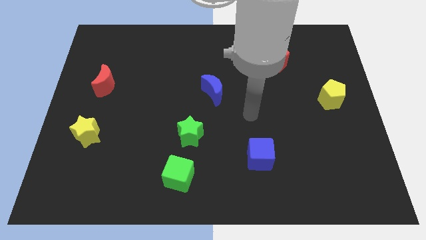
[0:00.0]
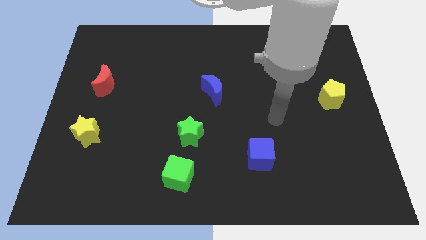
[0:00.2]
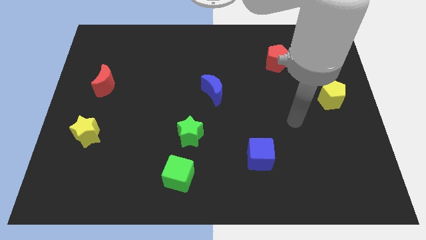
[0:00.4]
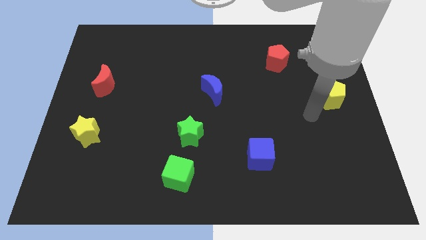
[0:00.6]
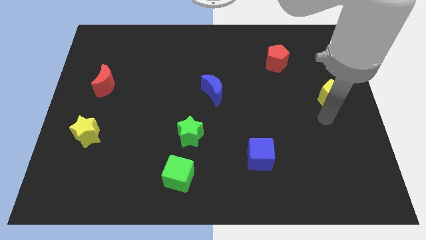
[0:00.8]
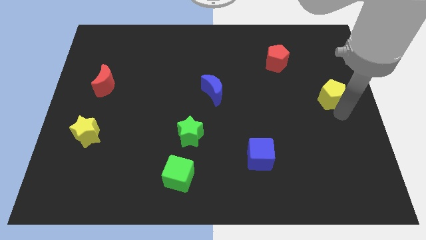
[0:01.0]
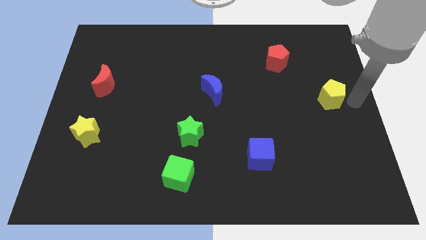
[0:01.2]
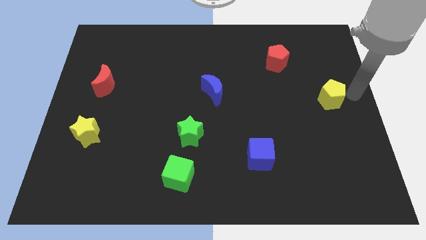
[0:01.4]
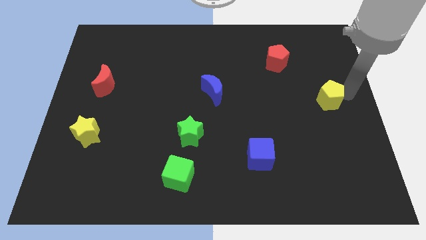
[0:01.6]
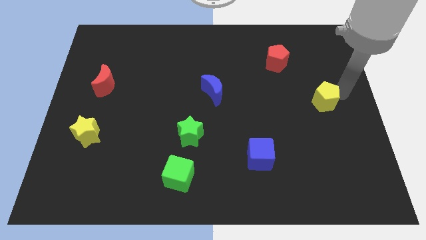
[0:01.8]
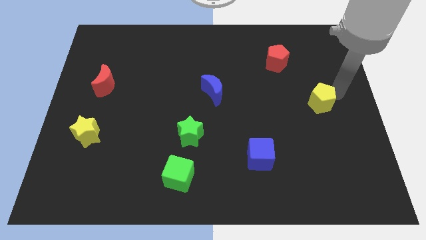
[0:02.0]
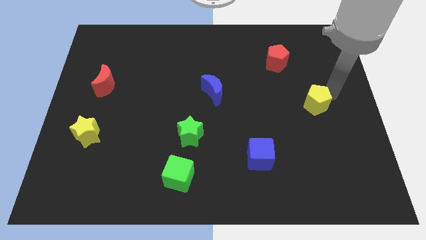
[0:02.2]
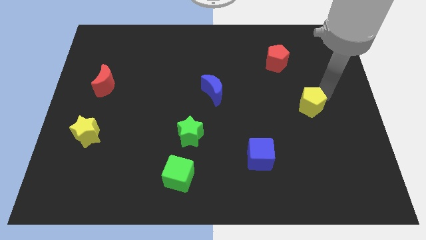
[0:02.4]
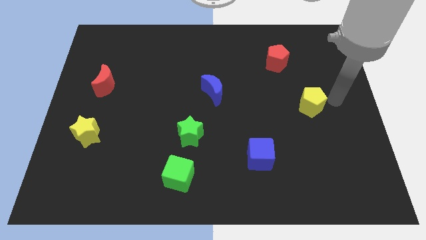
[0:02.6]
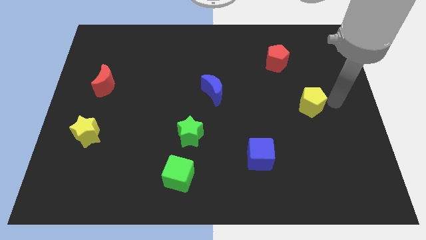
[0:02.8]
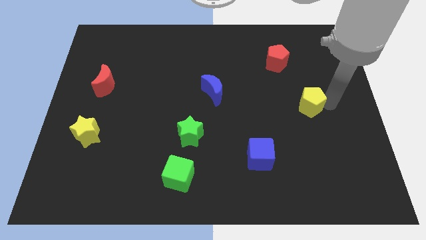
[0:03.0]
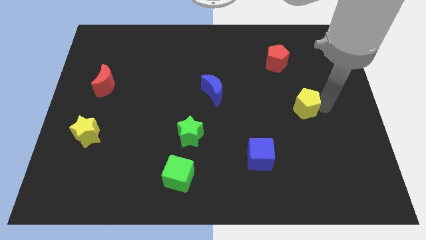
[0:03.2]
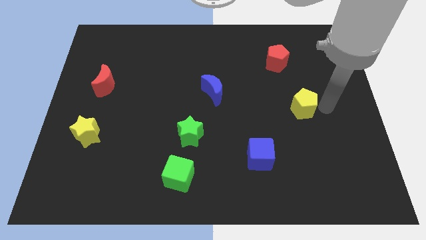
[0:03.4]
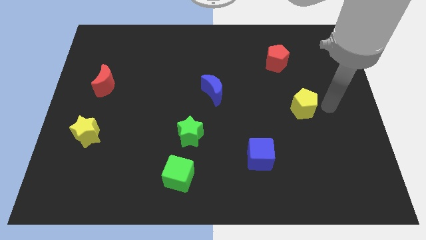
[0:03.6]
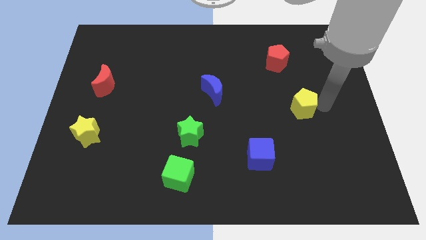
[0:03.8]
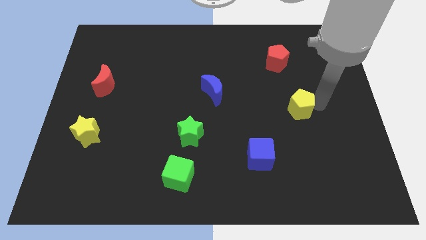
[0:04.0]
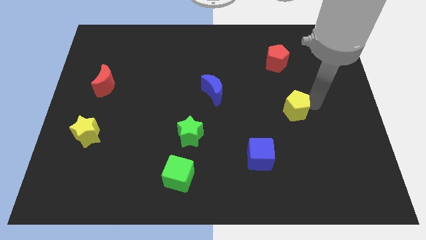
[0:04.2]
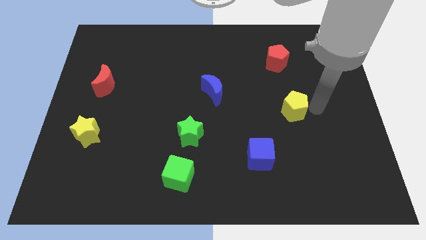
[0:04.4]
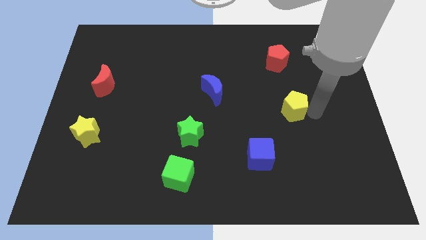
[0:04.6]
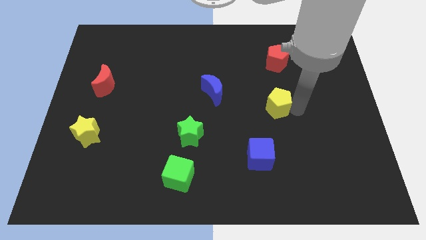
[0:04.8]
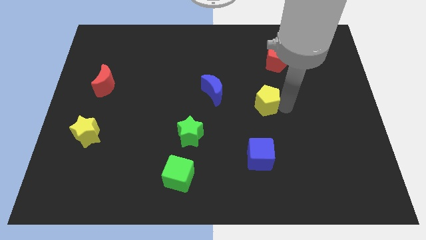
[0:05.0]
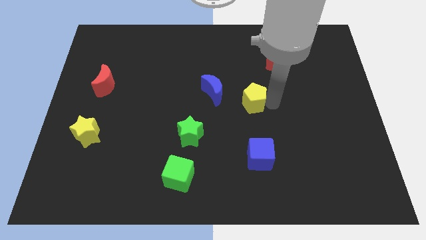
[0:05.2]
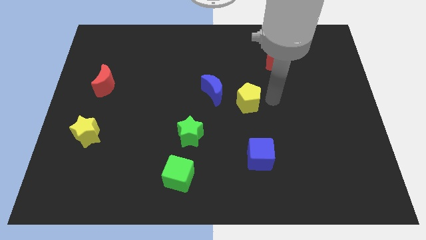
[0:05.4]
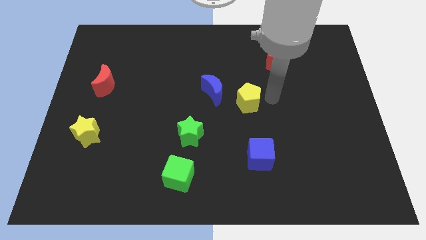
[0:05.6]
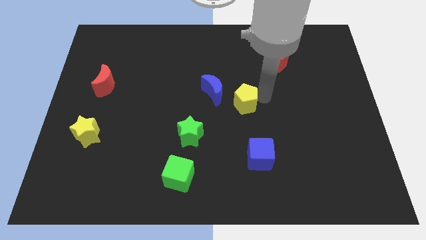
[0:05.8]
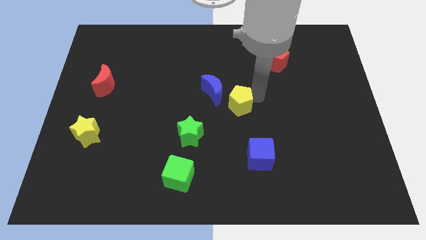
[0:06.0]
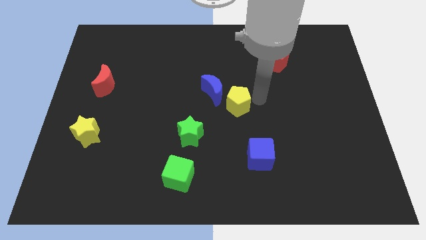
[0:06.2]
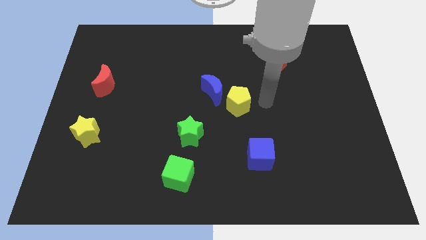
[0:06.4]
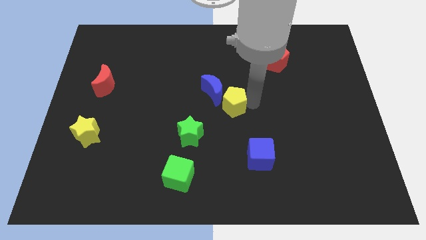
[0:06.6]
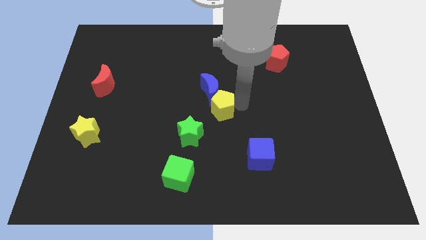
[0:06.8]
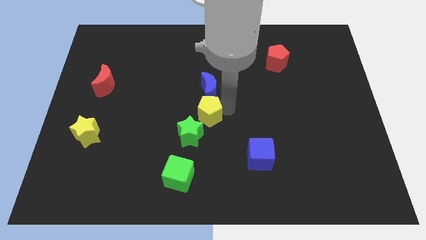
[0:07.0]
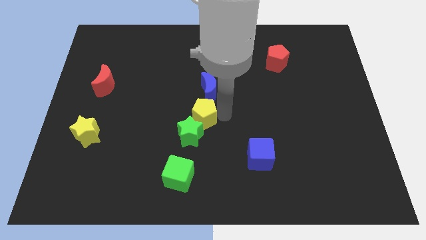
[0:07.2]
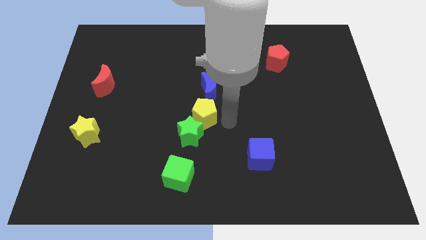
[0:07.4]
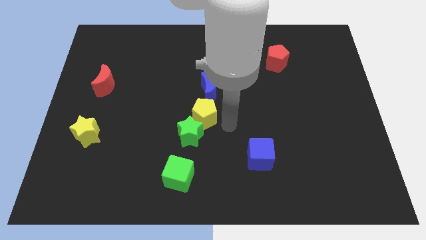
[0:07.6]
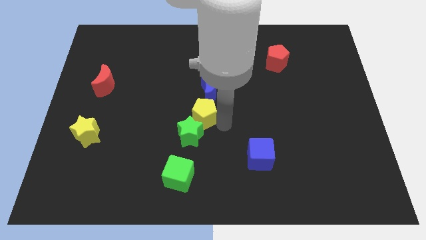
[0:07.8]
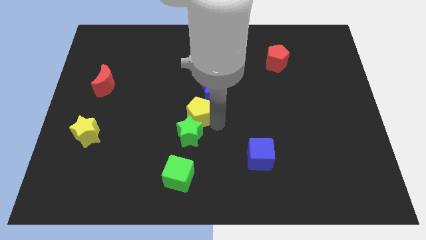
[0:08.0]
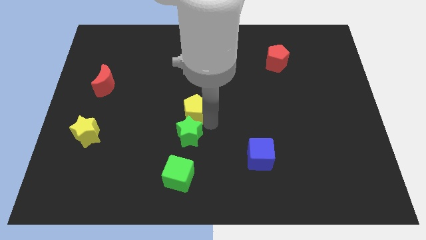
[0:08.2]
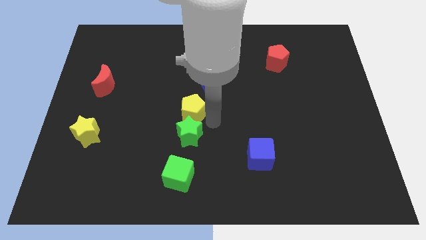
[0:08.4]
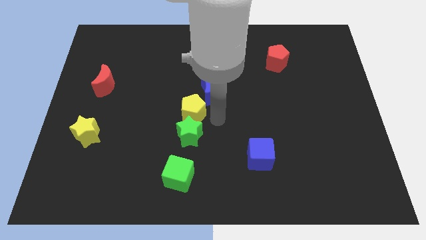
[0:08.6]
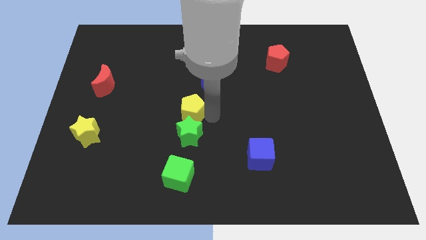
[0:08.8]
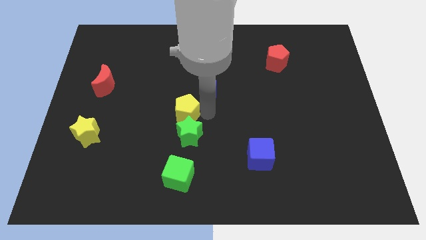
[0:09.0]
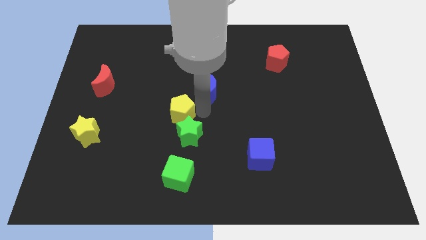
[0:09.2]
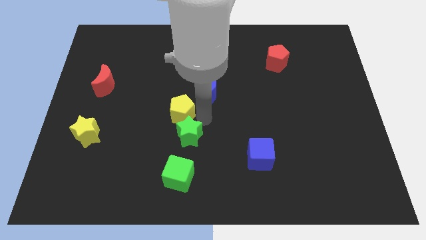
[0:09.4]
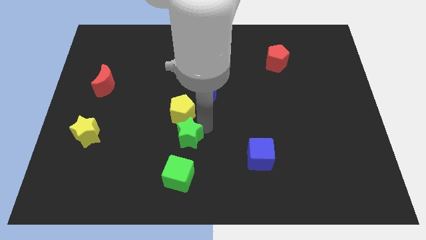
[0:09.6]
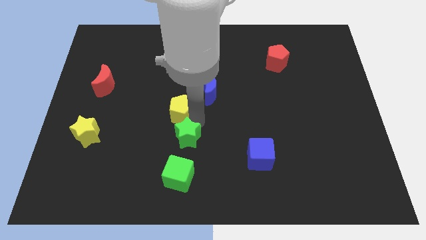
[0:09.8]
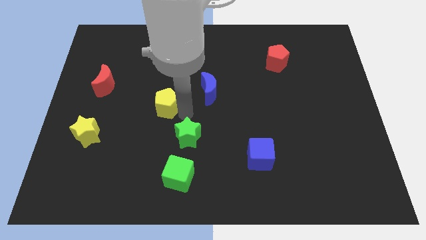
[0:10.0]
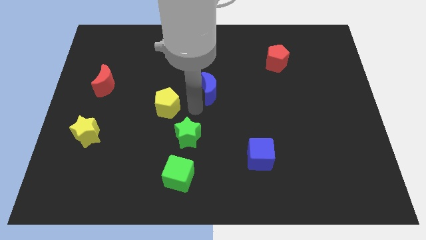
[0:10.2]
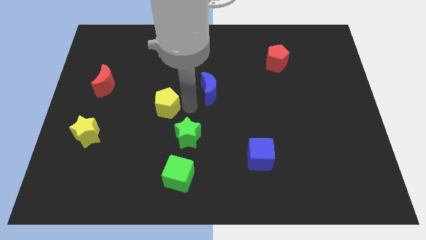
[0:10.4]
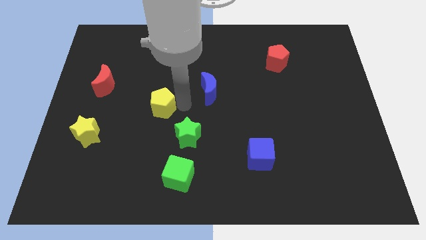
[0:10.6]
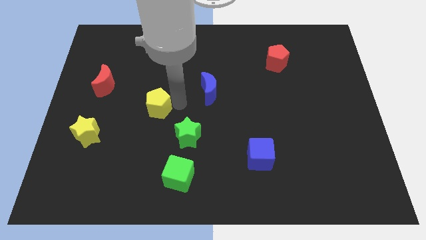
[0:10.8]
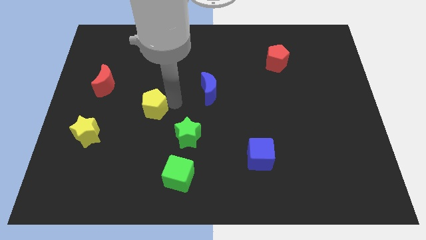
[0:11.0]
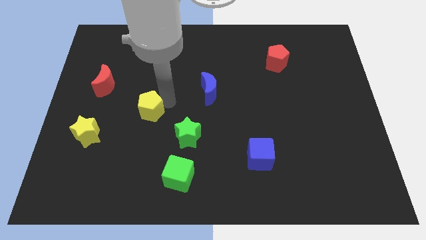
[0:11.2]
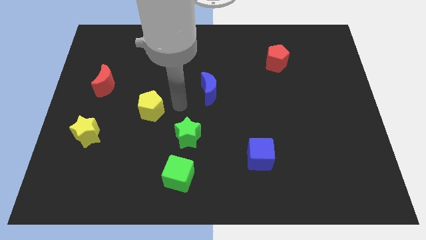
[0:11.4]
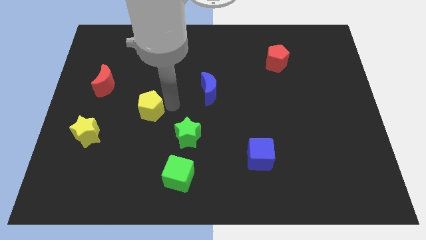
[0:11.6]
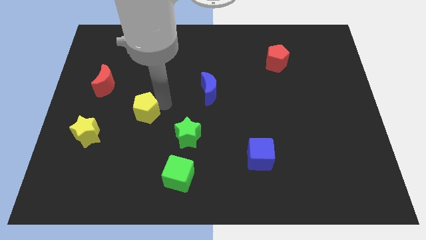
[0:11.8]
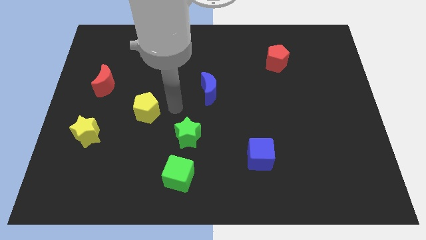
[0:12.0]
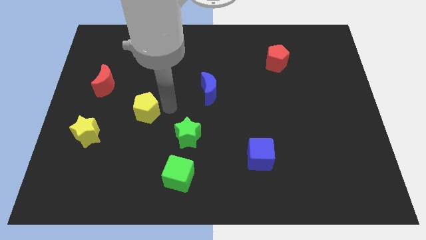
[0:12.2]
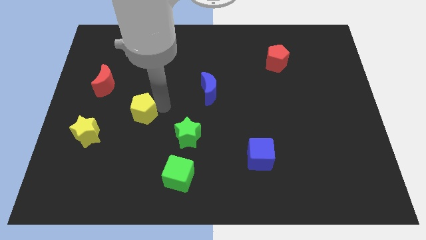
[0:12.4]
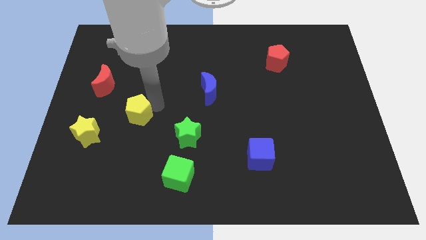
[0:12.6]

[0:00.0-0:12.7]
move the yellow pentagon to the top right side of the yellow star
